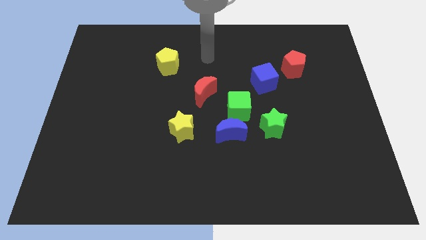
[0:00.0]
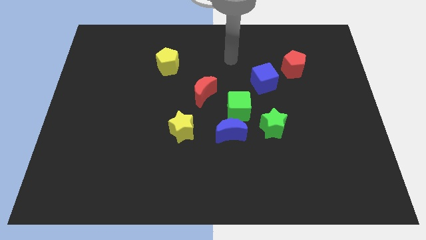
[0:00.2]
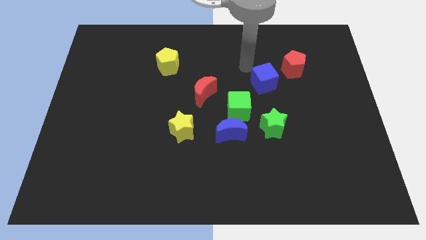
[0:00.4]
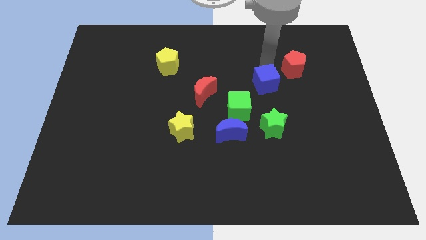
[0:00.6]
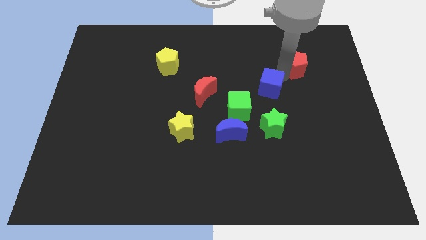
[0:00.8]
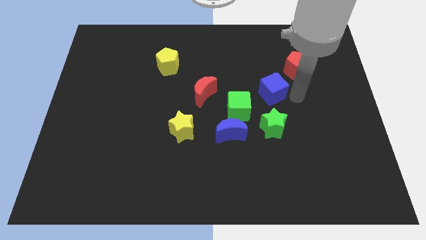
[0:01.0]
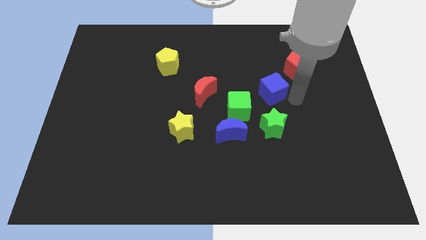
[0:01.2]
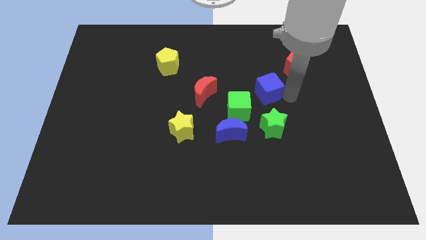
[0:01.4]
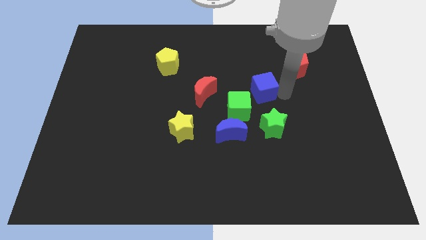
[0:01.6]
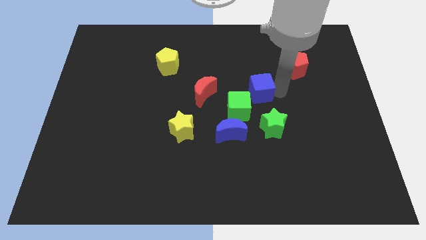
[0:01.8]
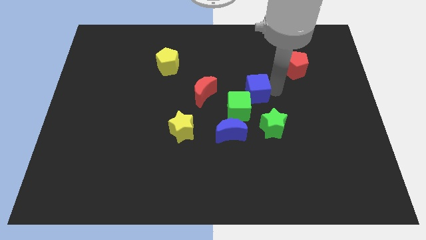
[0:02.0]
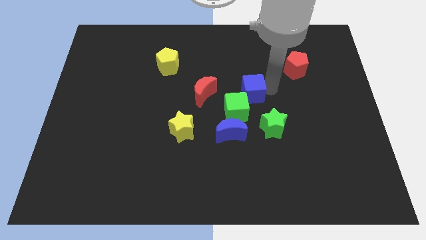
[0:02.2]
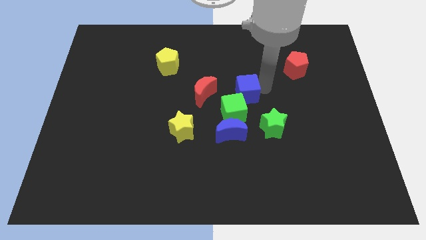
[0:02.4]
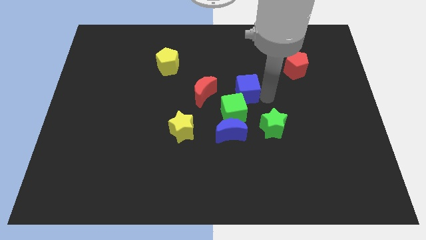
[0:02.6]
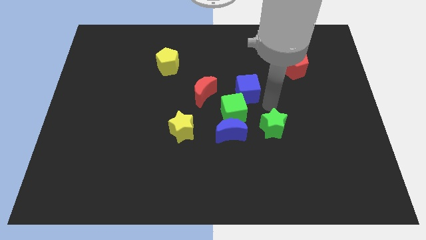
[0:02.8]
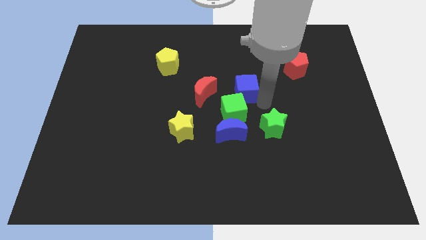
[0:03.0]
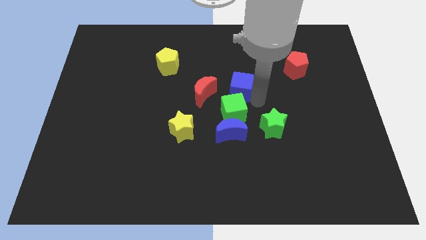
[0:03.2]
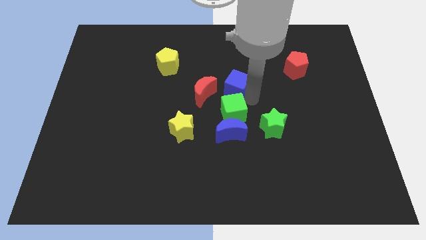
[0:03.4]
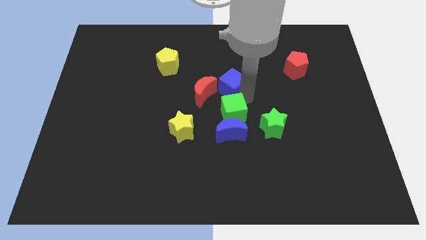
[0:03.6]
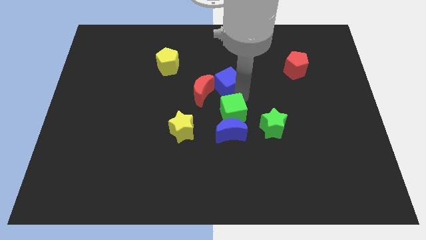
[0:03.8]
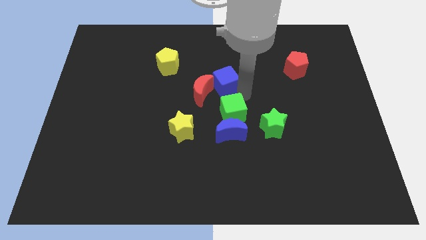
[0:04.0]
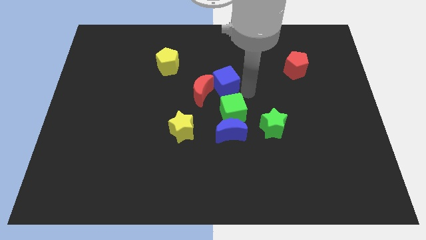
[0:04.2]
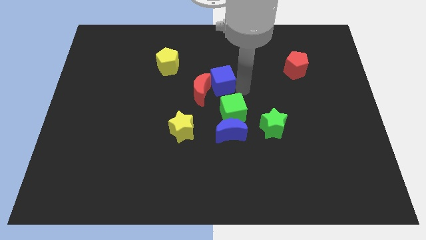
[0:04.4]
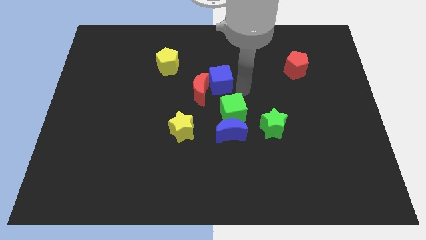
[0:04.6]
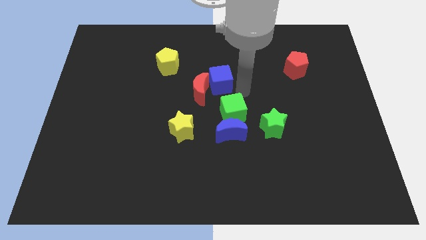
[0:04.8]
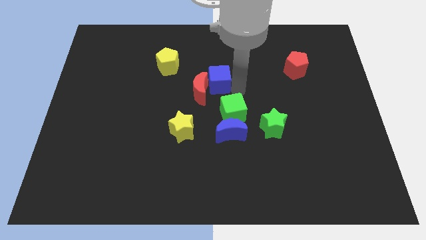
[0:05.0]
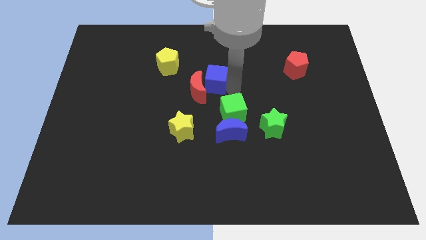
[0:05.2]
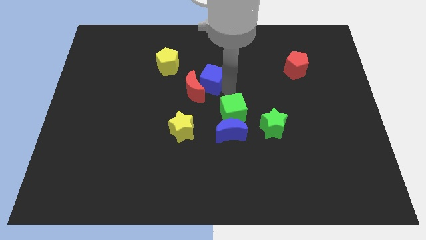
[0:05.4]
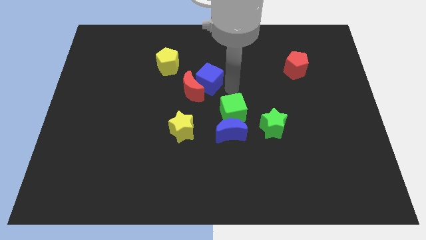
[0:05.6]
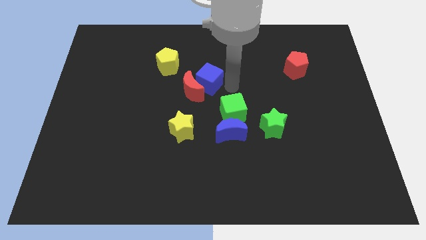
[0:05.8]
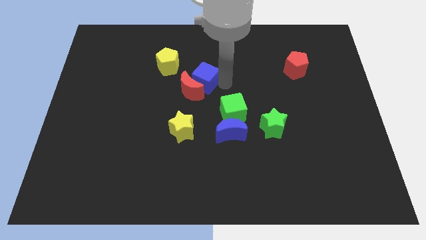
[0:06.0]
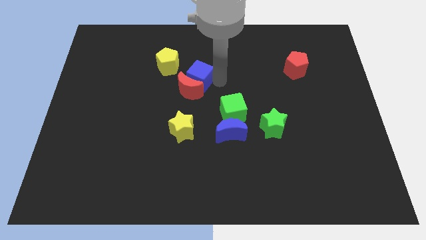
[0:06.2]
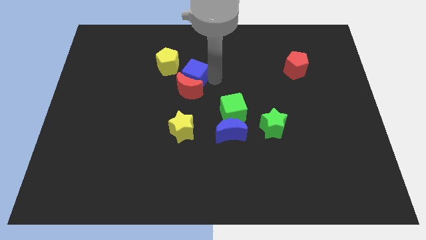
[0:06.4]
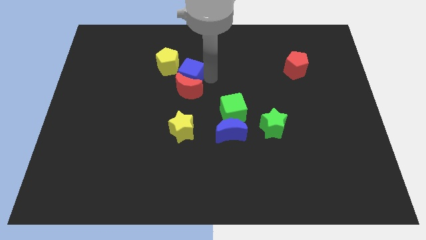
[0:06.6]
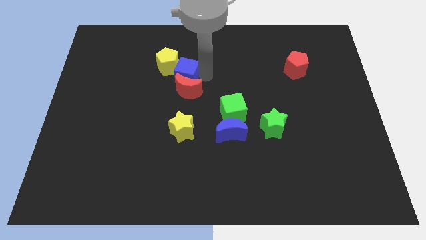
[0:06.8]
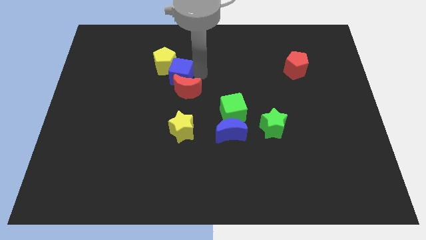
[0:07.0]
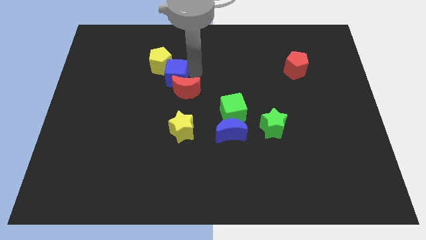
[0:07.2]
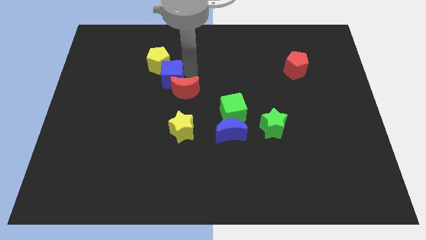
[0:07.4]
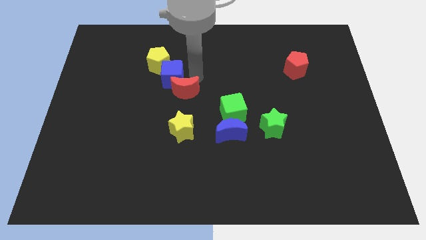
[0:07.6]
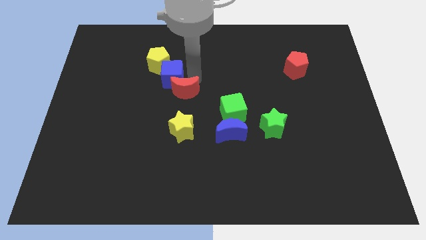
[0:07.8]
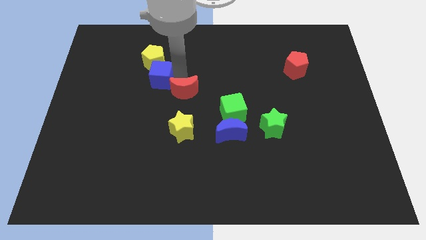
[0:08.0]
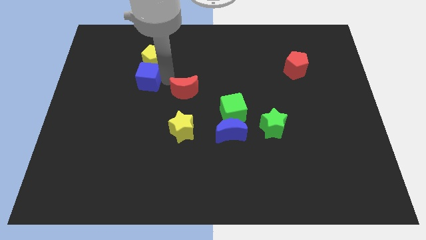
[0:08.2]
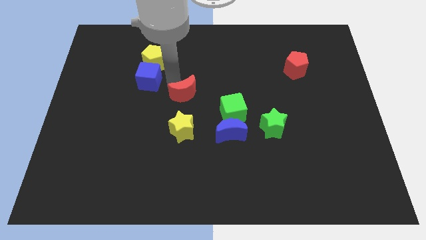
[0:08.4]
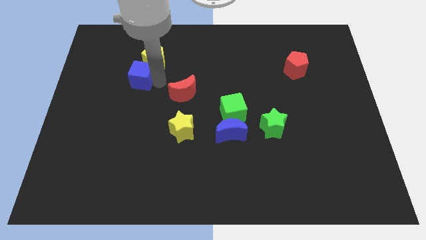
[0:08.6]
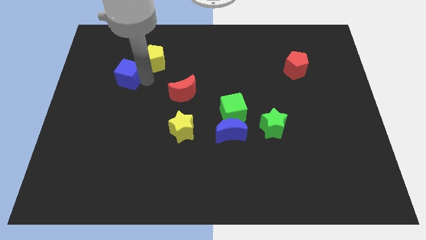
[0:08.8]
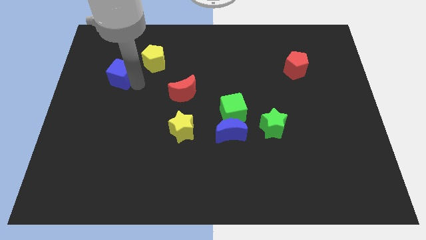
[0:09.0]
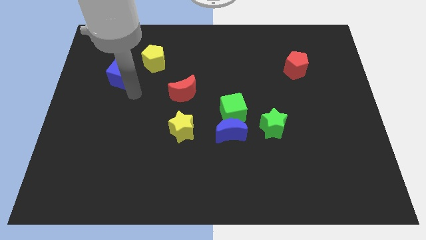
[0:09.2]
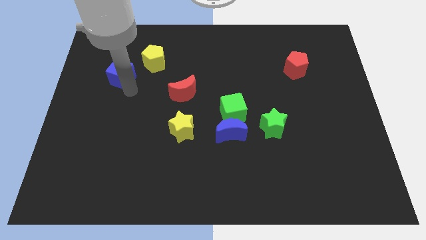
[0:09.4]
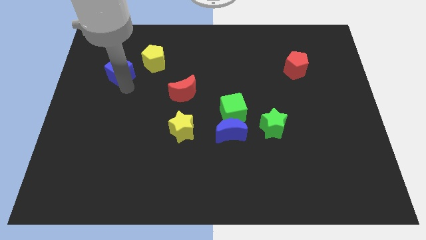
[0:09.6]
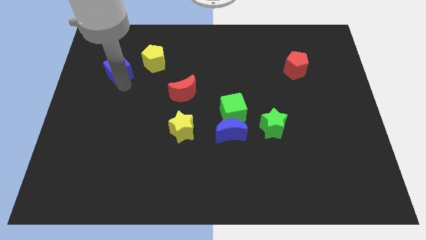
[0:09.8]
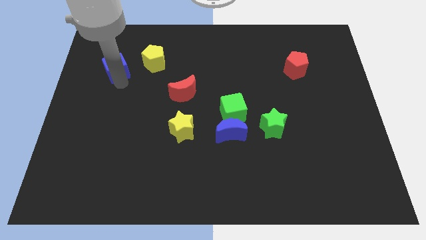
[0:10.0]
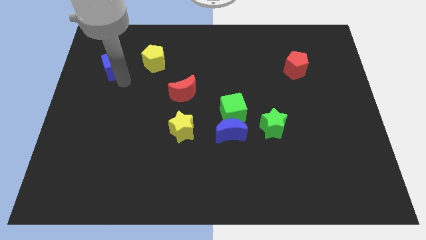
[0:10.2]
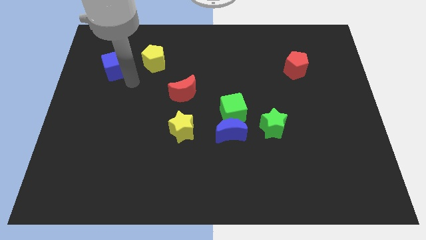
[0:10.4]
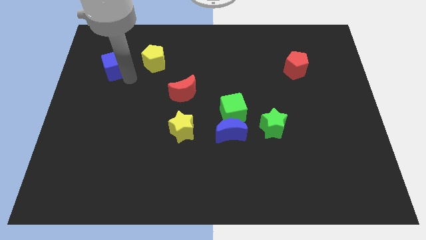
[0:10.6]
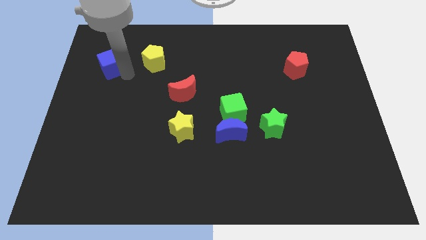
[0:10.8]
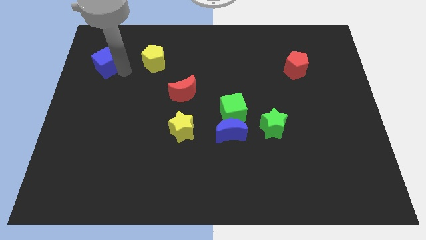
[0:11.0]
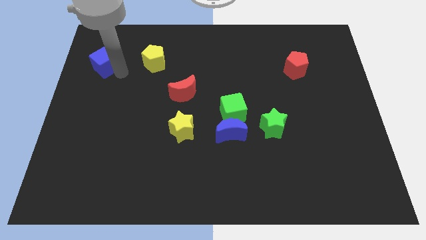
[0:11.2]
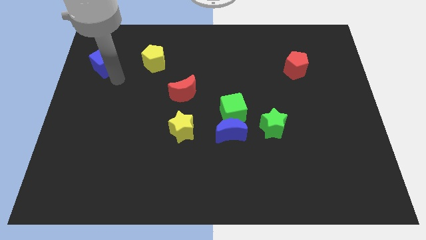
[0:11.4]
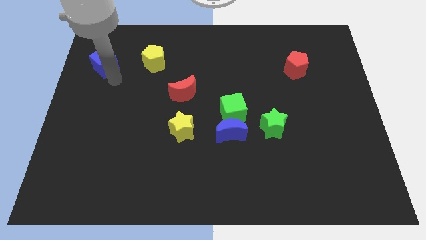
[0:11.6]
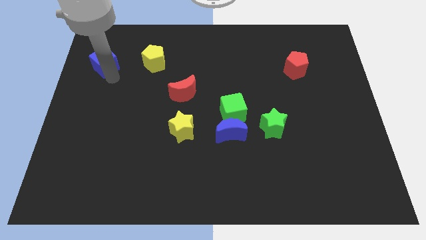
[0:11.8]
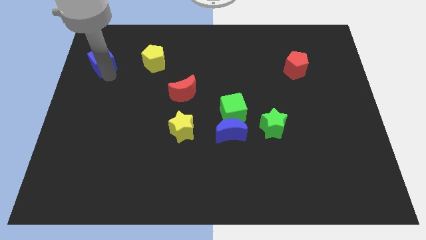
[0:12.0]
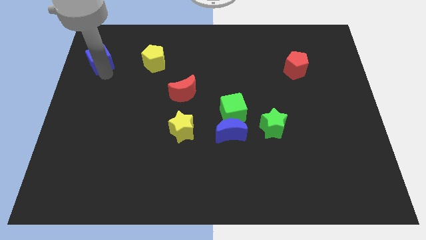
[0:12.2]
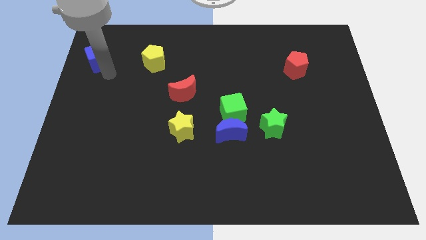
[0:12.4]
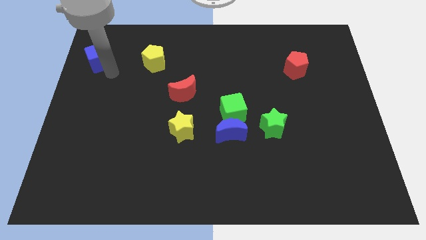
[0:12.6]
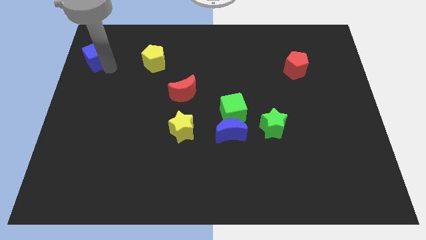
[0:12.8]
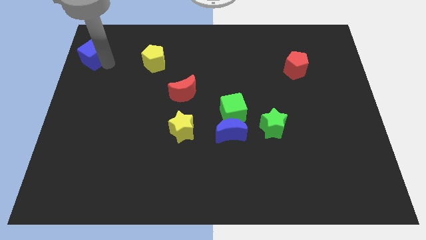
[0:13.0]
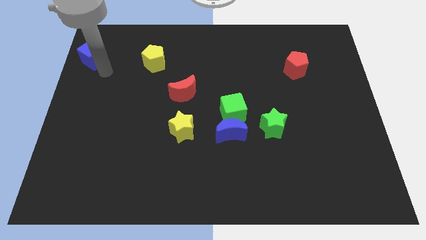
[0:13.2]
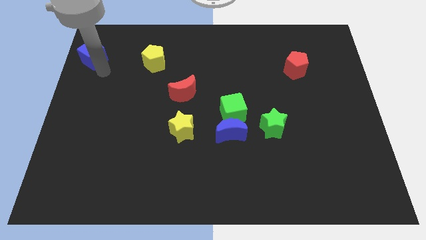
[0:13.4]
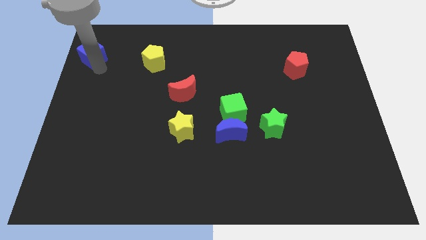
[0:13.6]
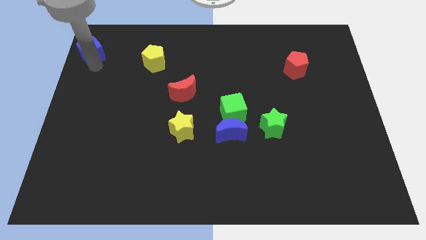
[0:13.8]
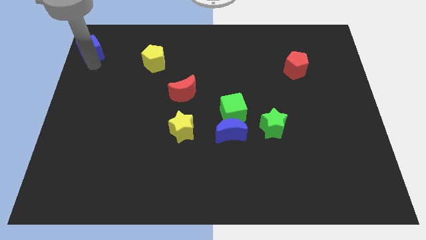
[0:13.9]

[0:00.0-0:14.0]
push the blue cube to the top left of the board
